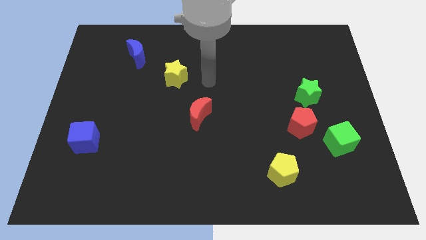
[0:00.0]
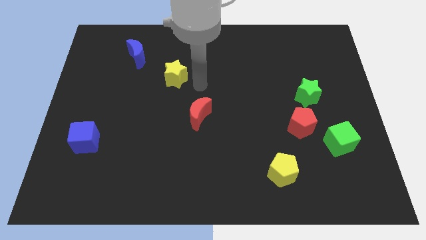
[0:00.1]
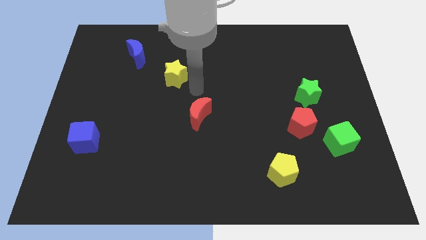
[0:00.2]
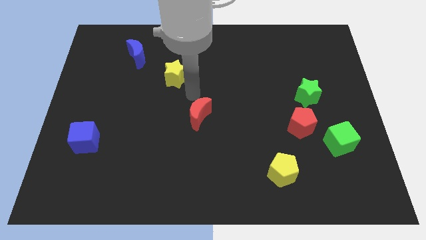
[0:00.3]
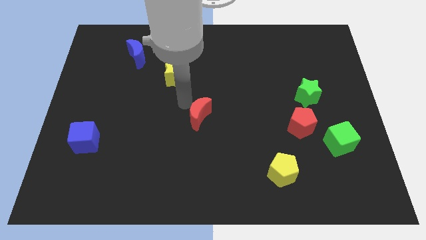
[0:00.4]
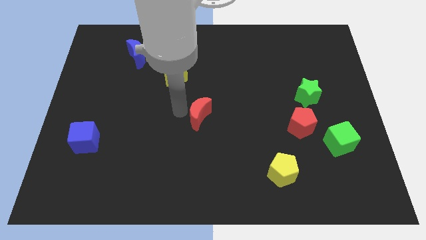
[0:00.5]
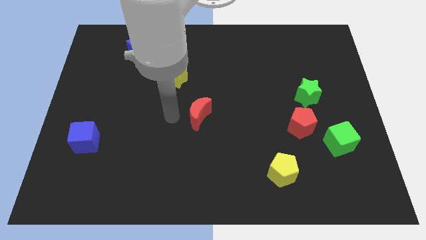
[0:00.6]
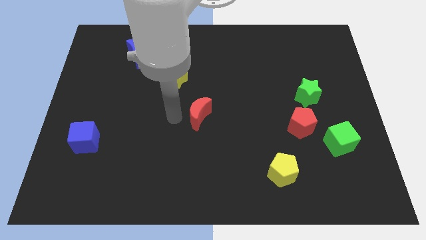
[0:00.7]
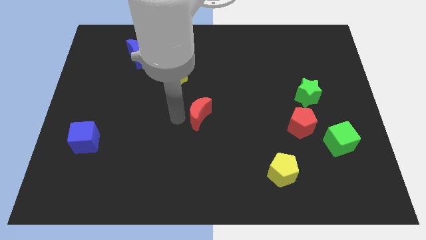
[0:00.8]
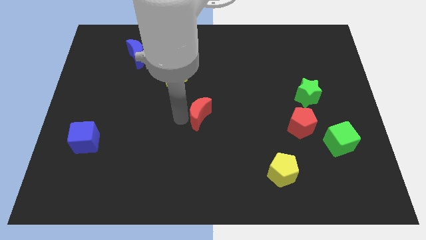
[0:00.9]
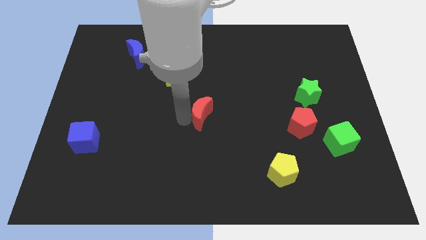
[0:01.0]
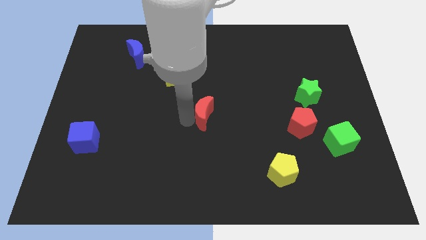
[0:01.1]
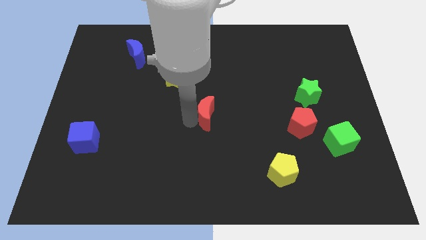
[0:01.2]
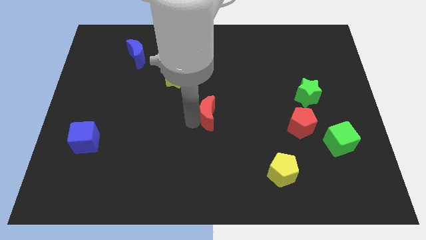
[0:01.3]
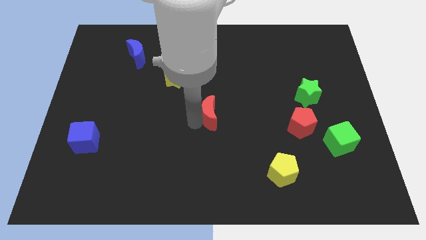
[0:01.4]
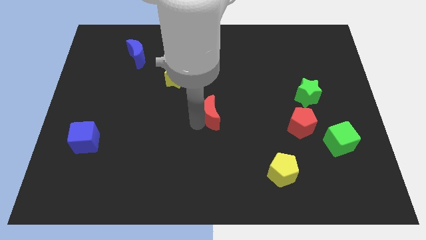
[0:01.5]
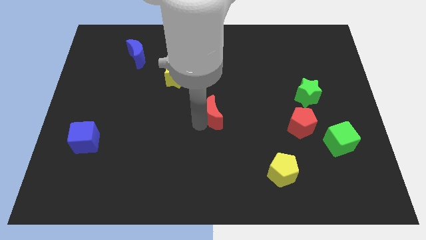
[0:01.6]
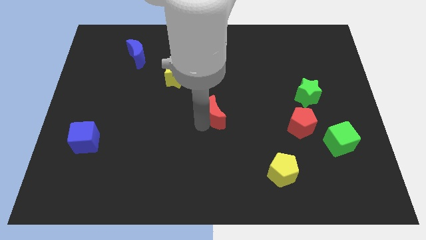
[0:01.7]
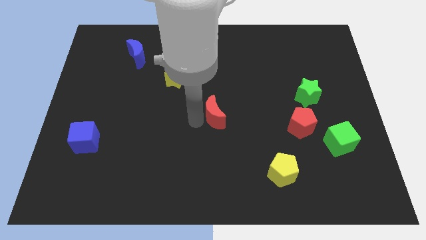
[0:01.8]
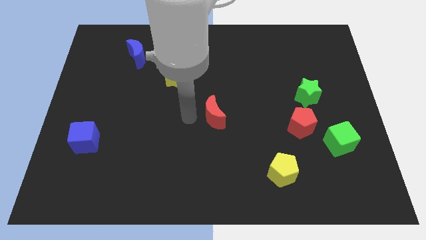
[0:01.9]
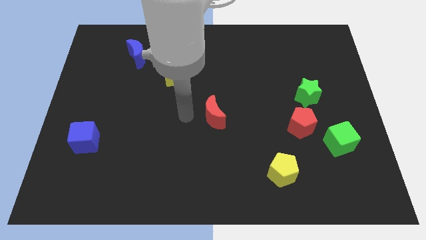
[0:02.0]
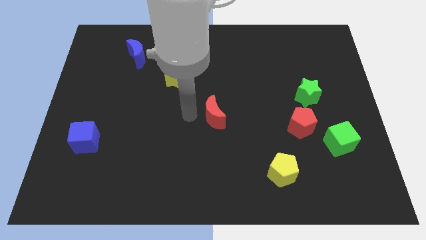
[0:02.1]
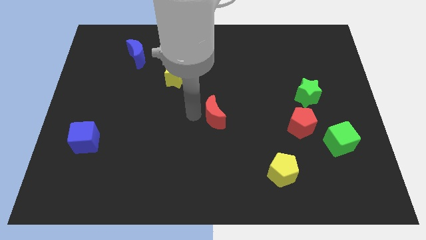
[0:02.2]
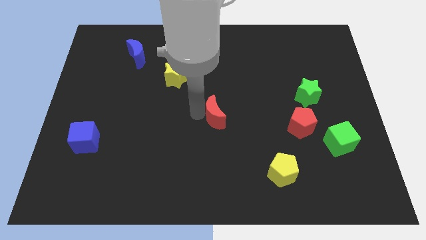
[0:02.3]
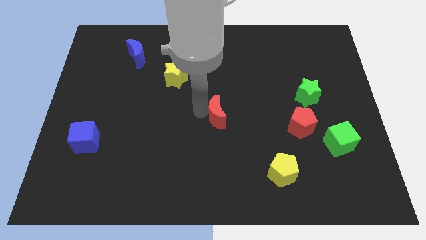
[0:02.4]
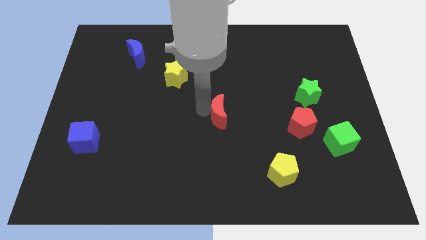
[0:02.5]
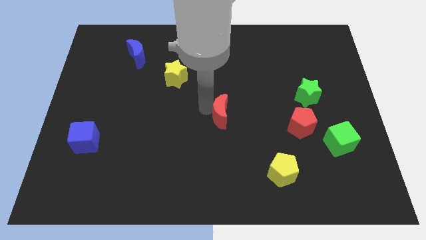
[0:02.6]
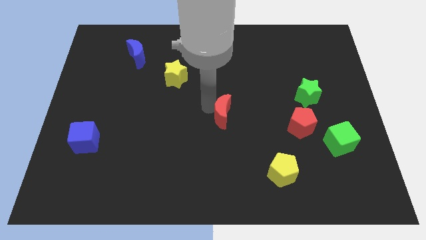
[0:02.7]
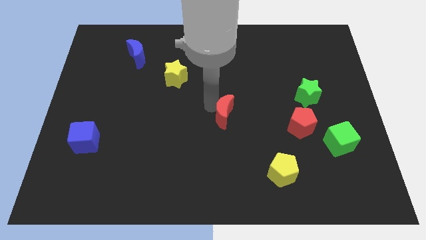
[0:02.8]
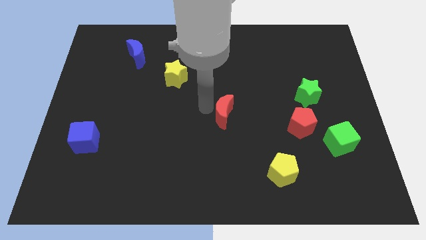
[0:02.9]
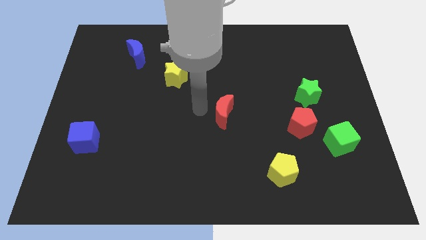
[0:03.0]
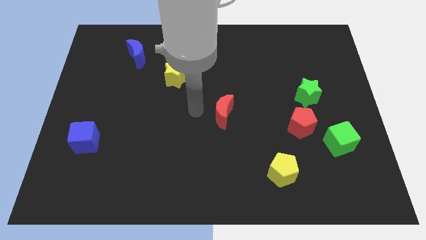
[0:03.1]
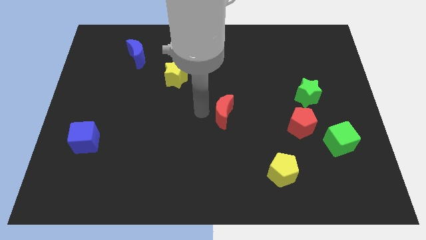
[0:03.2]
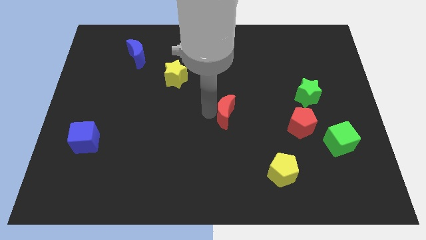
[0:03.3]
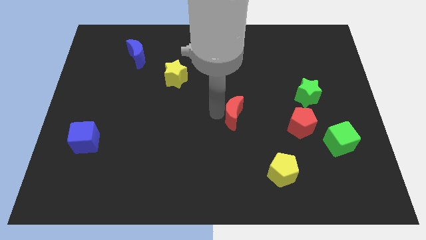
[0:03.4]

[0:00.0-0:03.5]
slide the red moon to the right a little bit

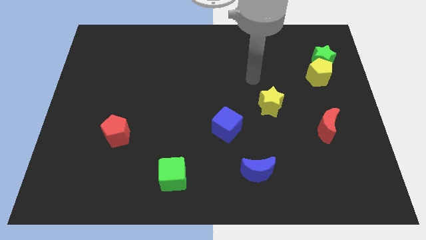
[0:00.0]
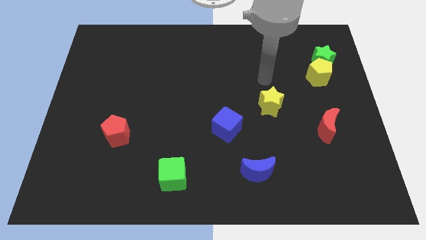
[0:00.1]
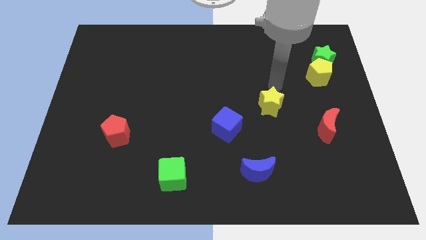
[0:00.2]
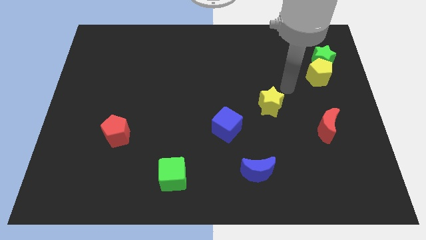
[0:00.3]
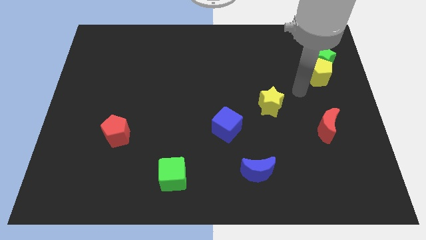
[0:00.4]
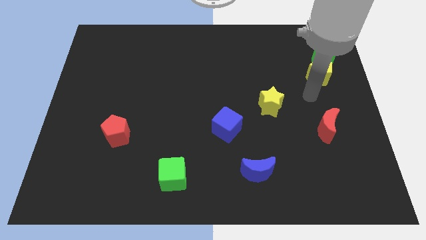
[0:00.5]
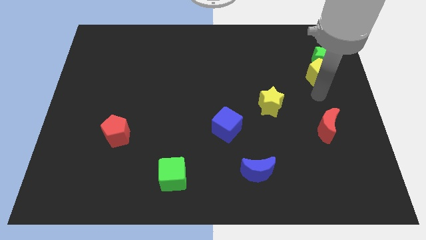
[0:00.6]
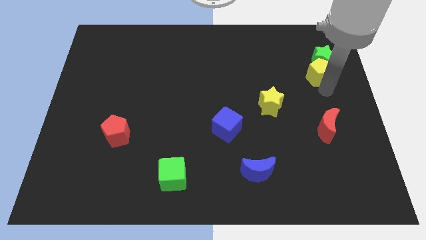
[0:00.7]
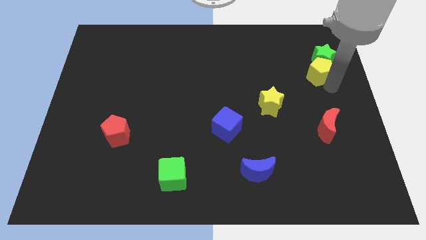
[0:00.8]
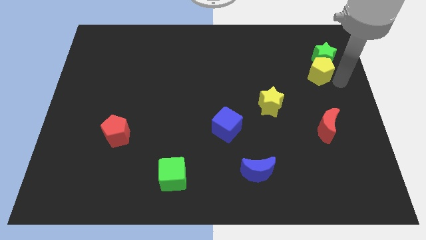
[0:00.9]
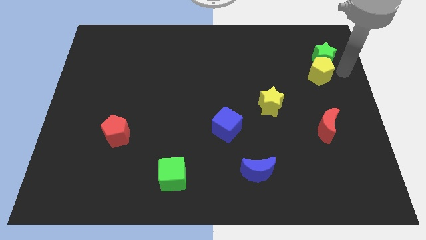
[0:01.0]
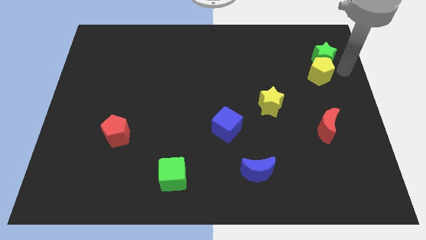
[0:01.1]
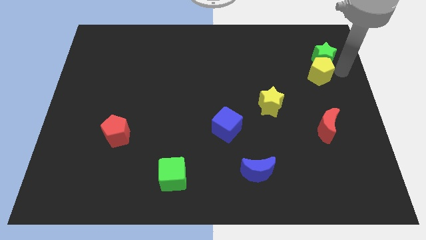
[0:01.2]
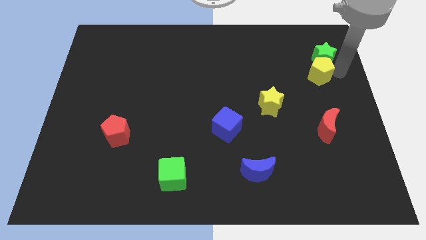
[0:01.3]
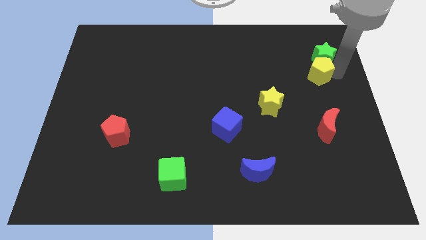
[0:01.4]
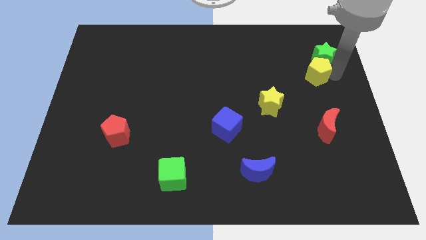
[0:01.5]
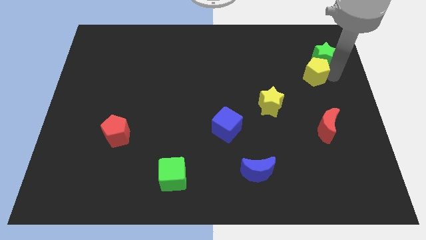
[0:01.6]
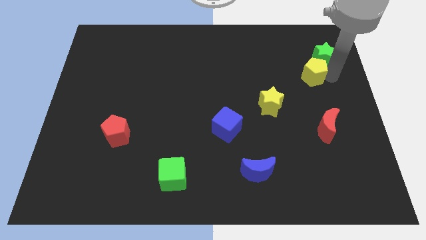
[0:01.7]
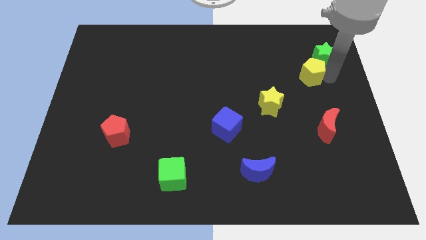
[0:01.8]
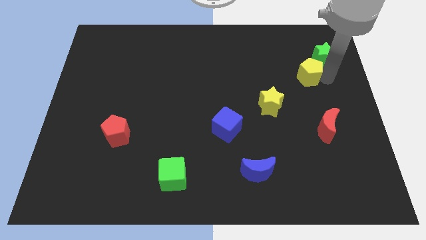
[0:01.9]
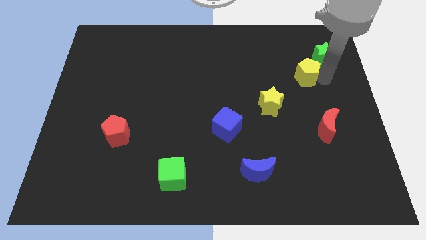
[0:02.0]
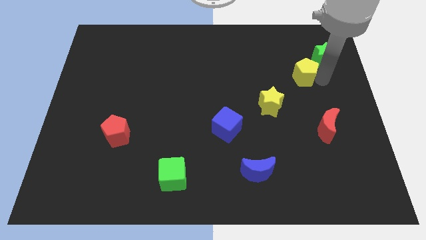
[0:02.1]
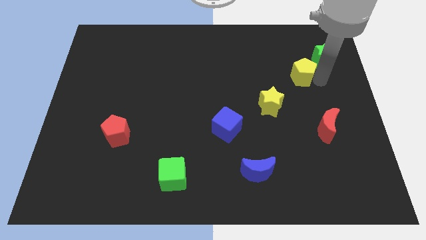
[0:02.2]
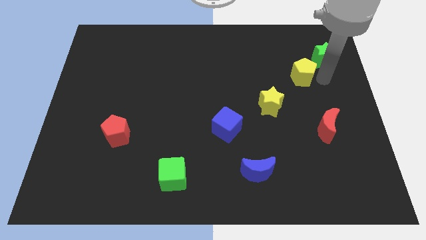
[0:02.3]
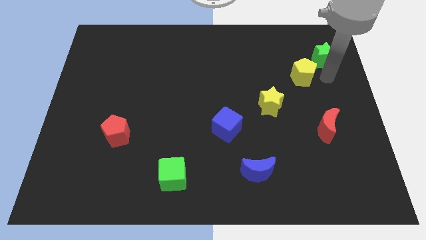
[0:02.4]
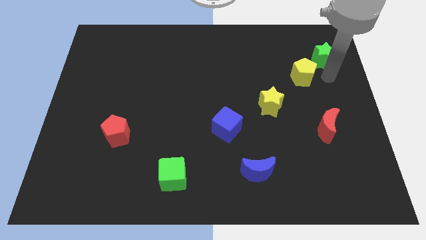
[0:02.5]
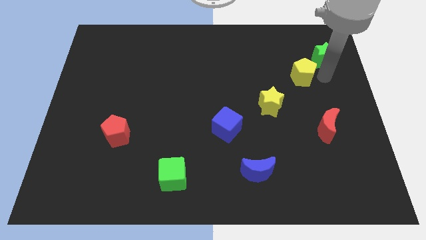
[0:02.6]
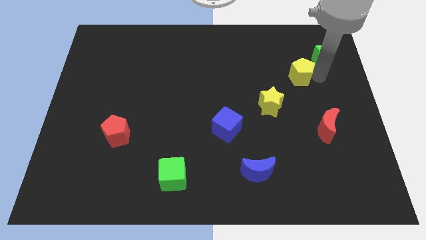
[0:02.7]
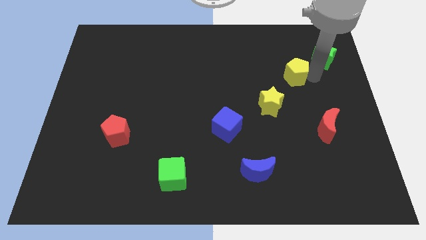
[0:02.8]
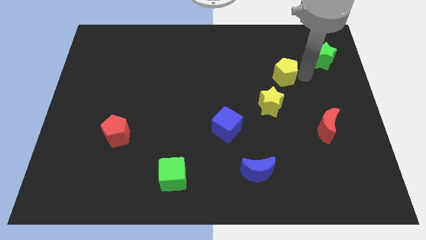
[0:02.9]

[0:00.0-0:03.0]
push the yellow pentagon a little bit to the left

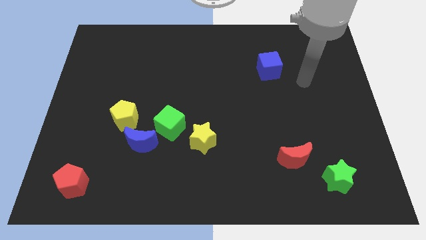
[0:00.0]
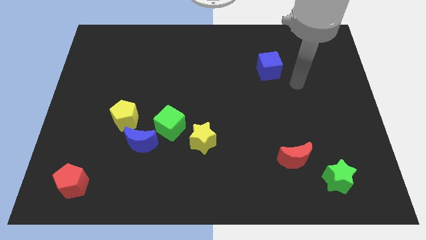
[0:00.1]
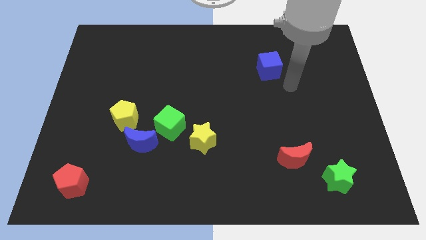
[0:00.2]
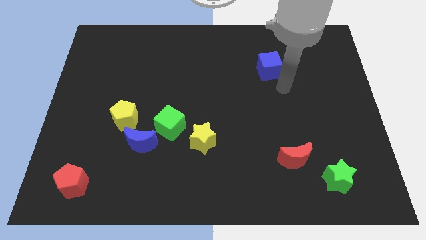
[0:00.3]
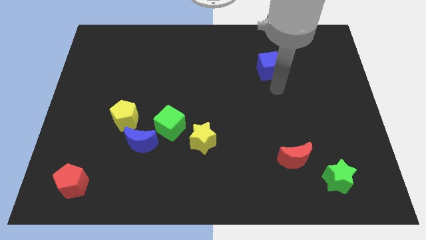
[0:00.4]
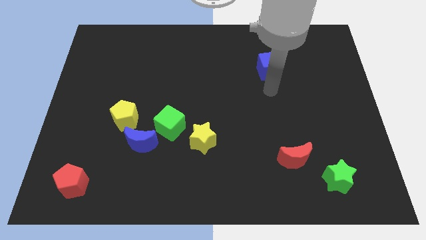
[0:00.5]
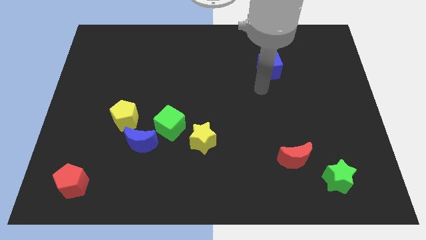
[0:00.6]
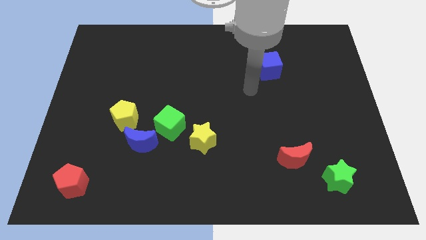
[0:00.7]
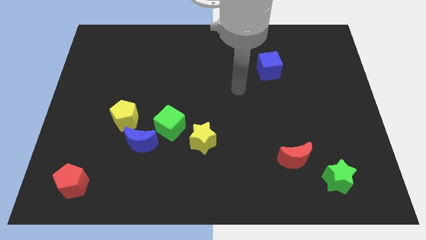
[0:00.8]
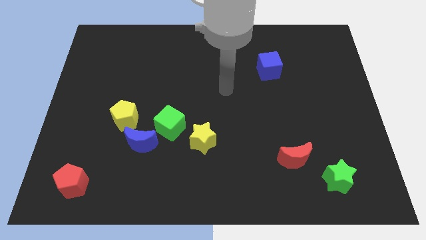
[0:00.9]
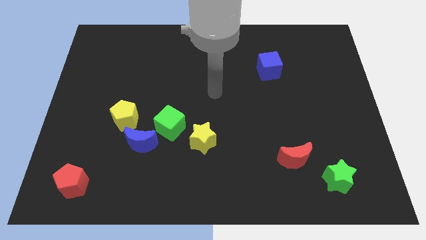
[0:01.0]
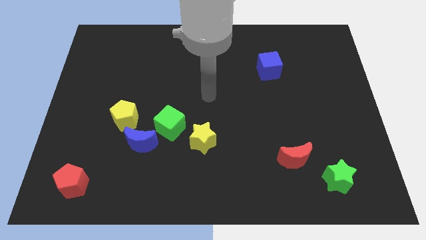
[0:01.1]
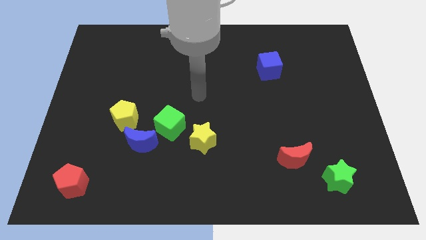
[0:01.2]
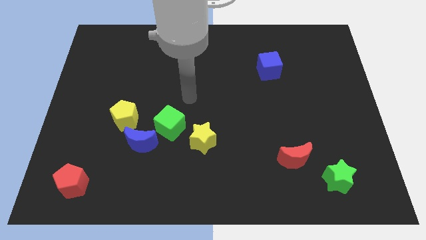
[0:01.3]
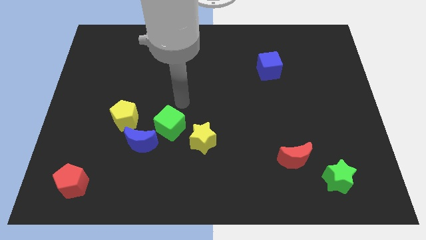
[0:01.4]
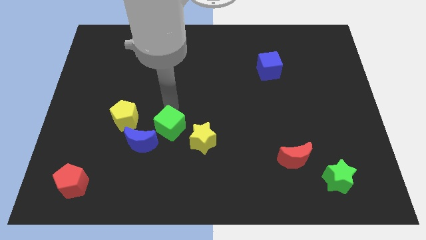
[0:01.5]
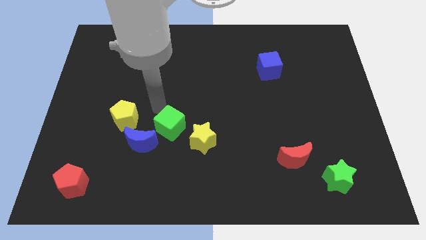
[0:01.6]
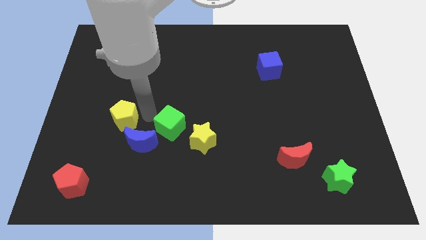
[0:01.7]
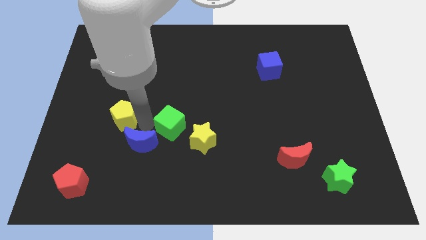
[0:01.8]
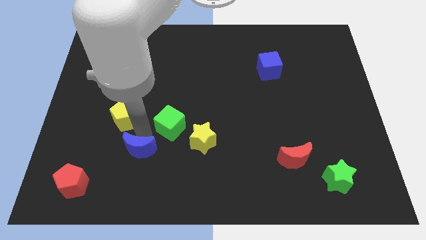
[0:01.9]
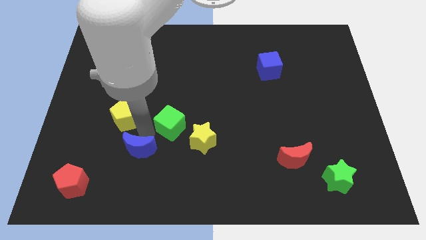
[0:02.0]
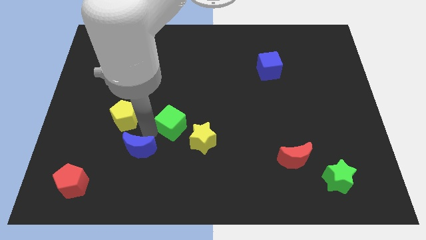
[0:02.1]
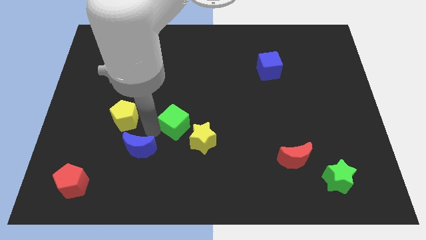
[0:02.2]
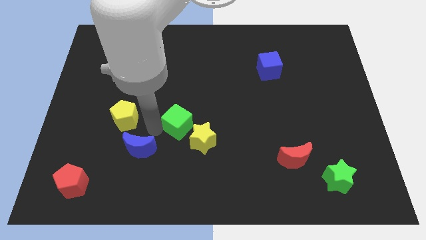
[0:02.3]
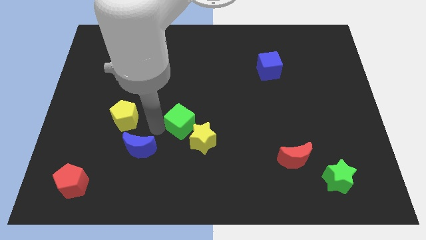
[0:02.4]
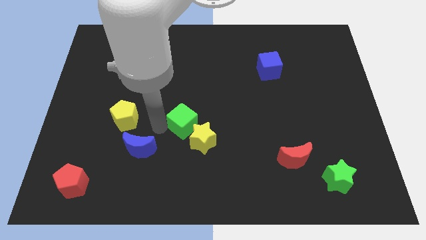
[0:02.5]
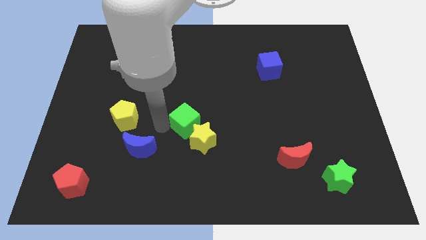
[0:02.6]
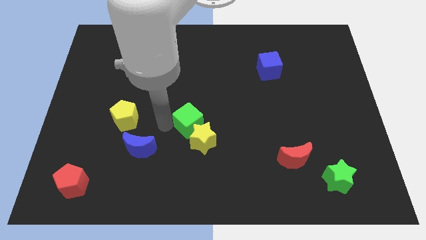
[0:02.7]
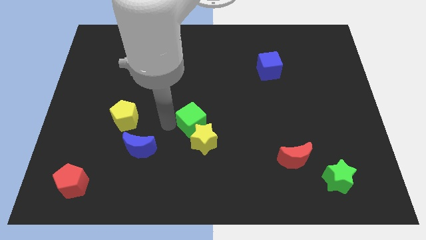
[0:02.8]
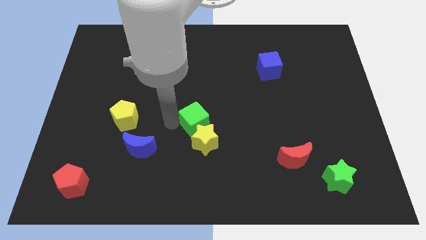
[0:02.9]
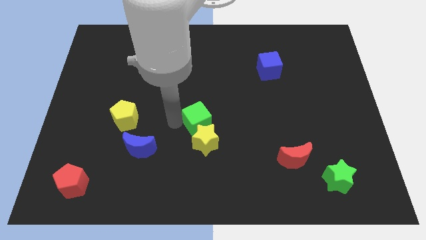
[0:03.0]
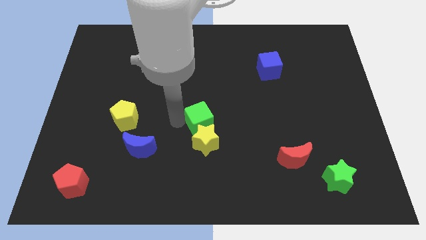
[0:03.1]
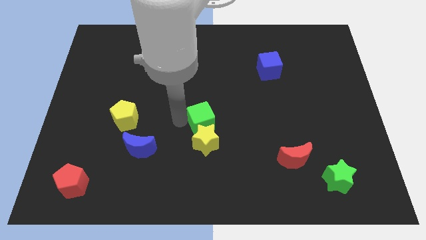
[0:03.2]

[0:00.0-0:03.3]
push the green cube a little bit right
